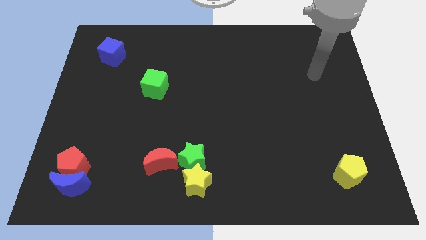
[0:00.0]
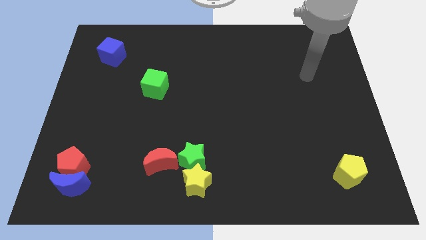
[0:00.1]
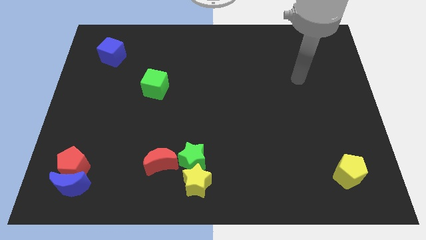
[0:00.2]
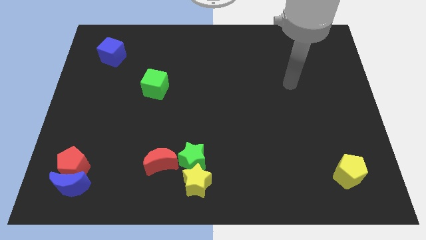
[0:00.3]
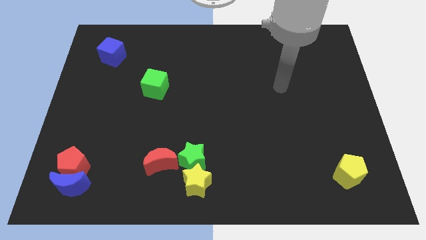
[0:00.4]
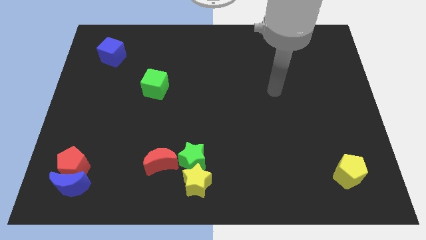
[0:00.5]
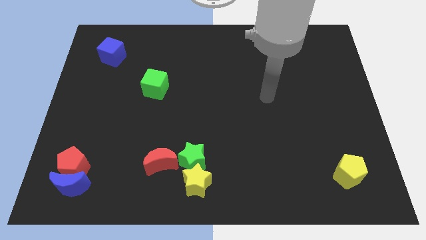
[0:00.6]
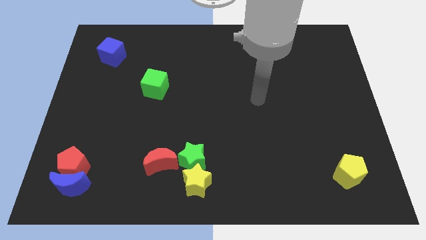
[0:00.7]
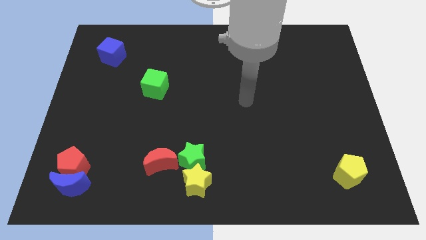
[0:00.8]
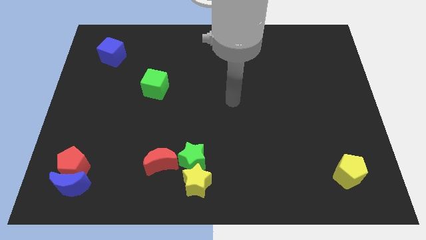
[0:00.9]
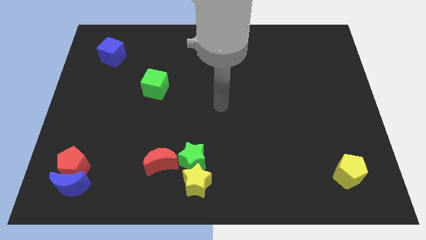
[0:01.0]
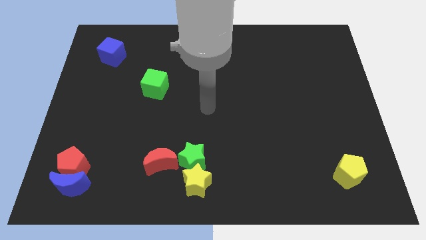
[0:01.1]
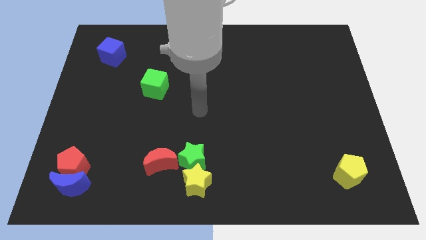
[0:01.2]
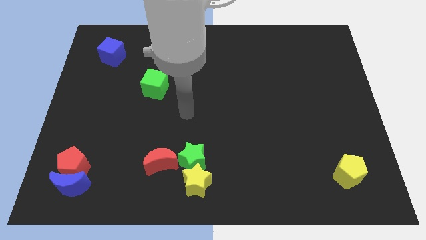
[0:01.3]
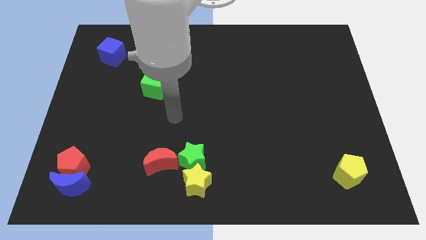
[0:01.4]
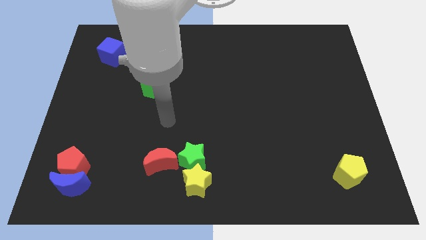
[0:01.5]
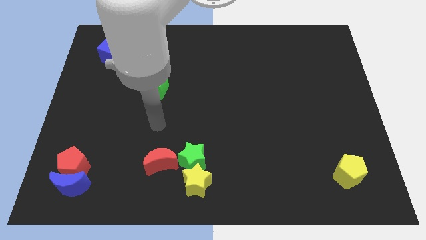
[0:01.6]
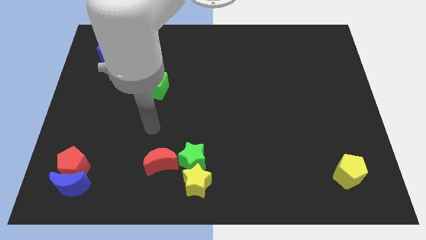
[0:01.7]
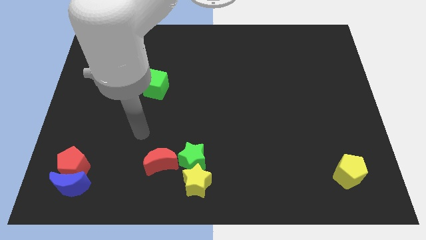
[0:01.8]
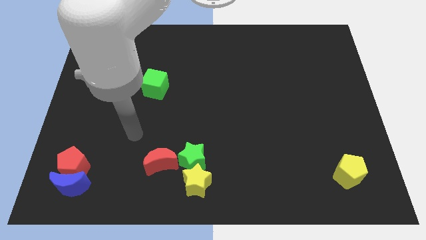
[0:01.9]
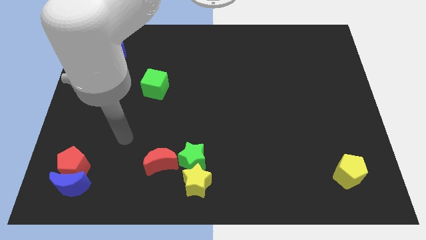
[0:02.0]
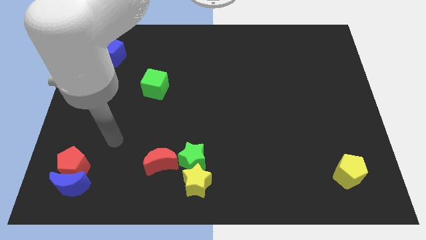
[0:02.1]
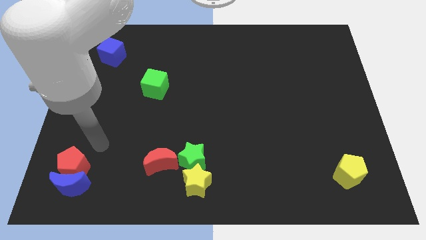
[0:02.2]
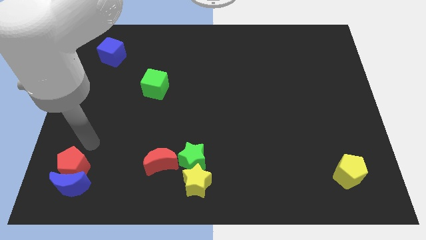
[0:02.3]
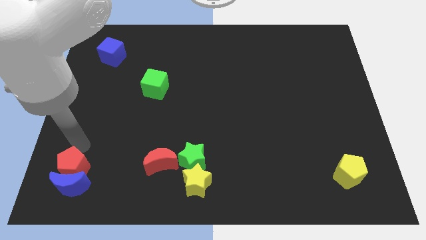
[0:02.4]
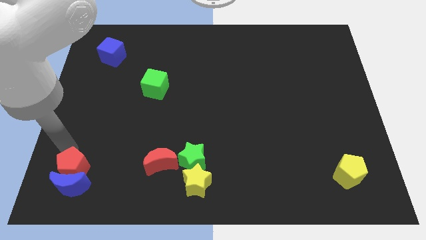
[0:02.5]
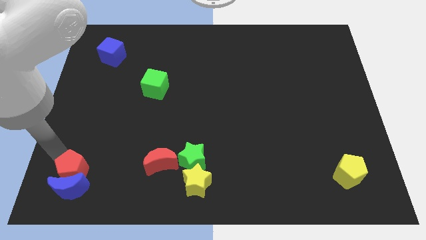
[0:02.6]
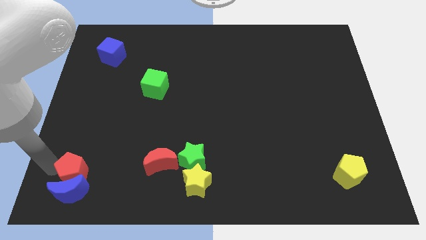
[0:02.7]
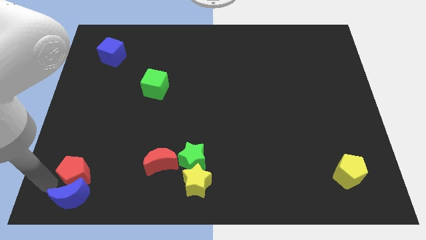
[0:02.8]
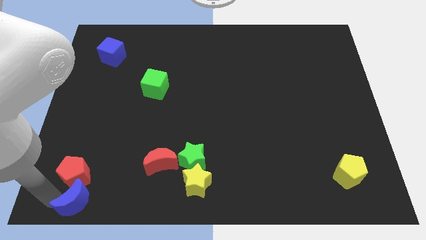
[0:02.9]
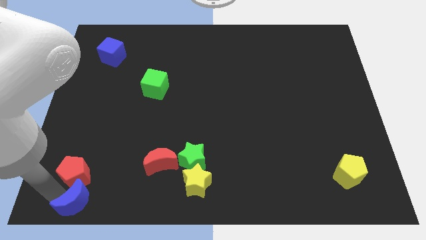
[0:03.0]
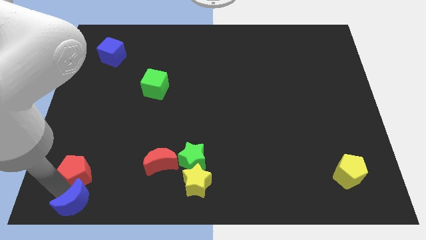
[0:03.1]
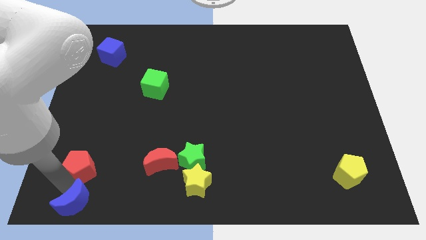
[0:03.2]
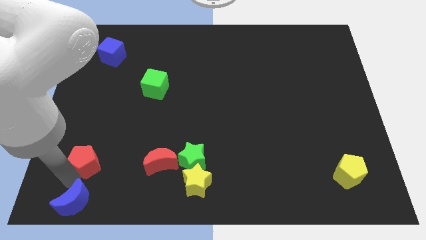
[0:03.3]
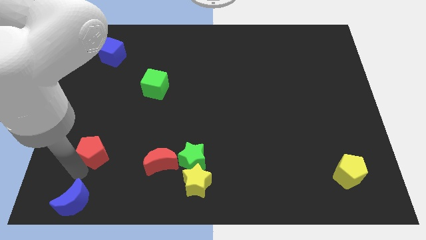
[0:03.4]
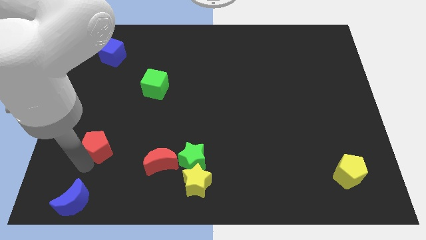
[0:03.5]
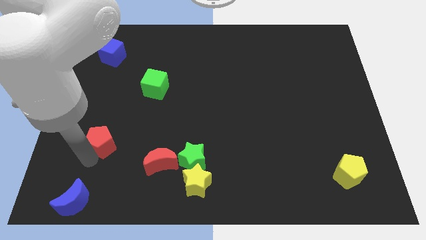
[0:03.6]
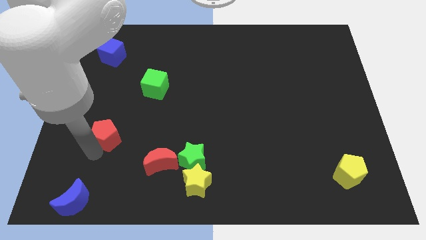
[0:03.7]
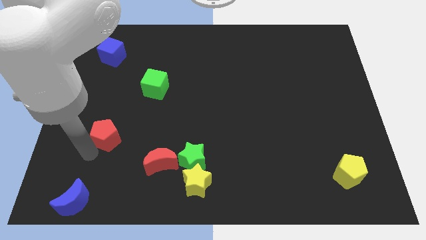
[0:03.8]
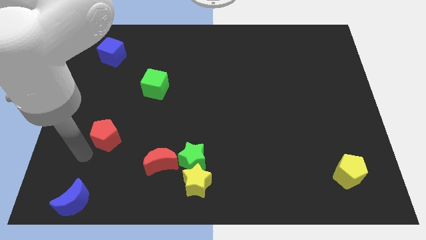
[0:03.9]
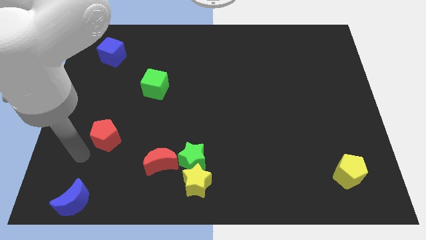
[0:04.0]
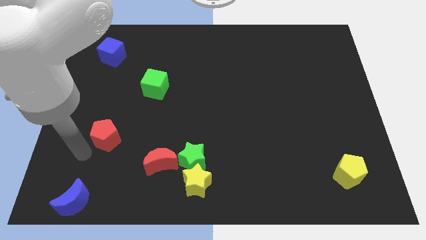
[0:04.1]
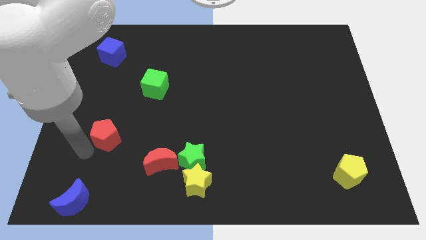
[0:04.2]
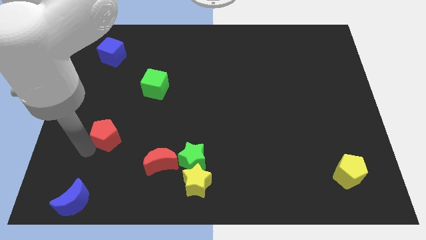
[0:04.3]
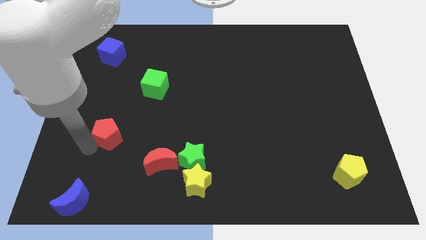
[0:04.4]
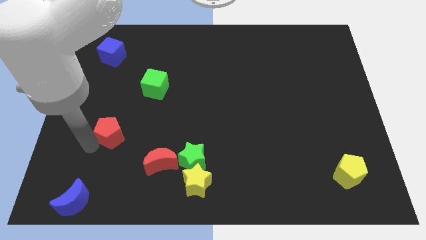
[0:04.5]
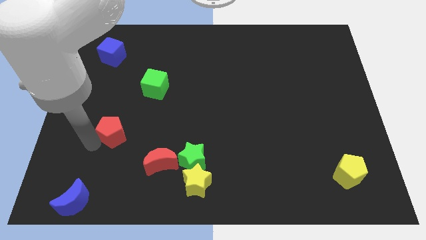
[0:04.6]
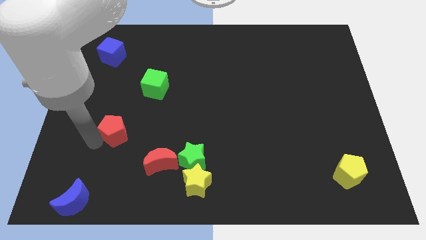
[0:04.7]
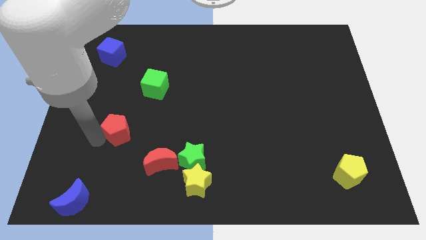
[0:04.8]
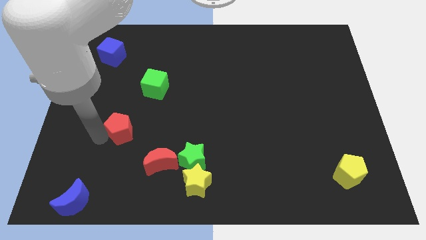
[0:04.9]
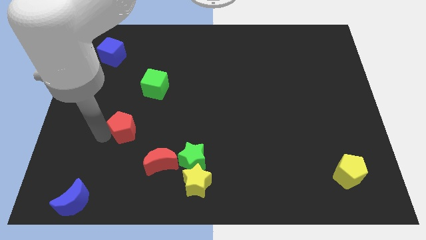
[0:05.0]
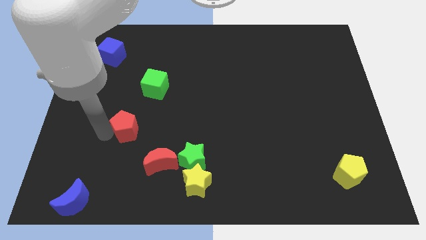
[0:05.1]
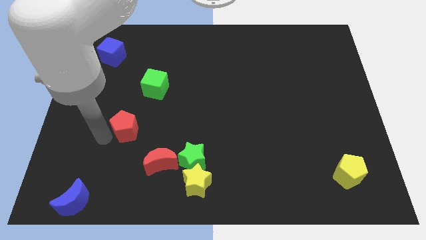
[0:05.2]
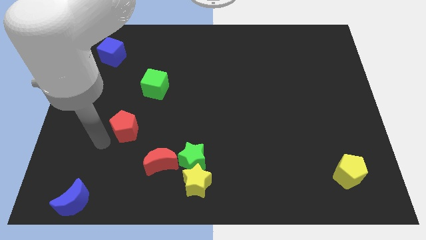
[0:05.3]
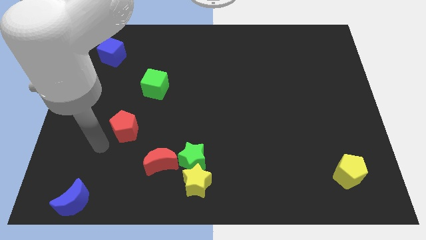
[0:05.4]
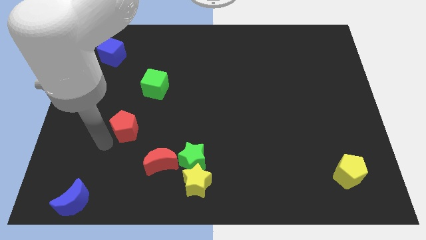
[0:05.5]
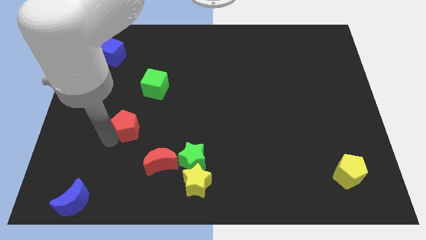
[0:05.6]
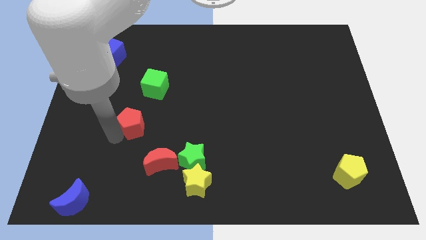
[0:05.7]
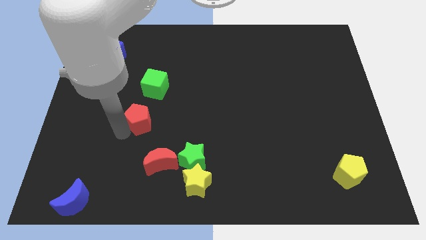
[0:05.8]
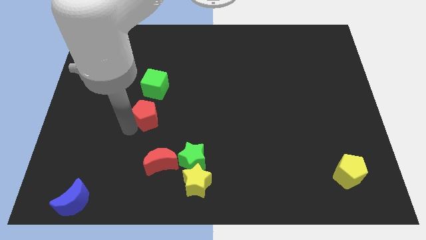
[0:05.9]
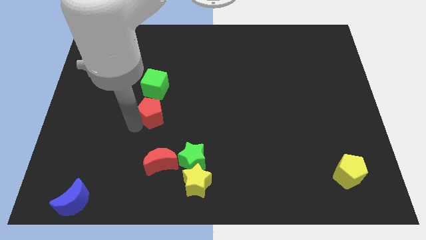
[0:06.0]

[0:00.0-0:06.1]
slide the red pentagon diagonally upwards and right

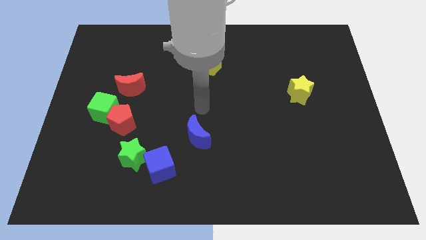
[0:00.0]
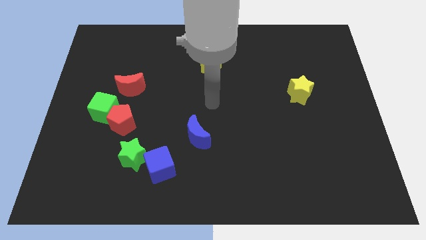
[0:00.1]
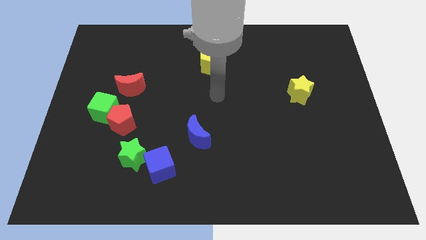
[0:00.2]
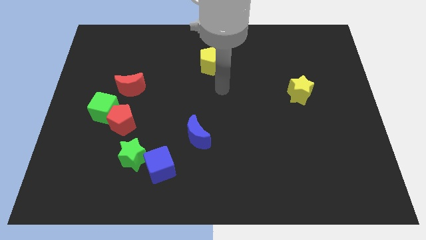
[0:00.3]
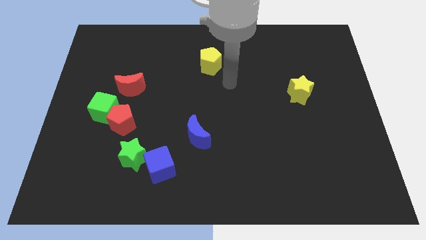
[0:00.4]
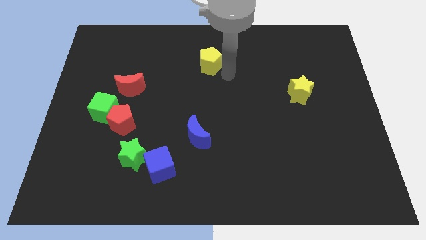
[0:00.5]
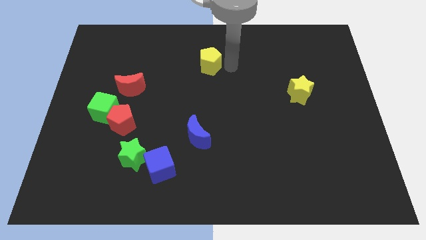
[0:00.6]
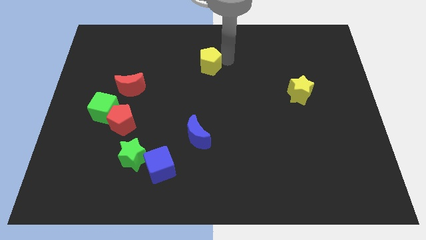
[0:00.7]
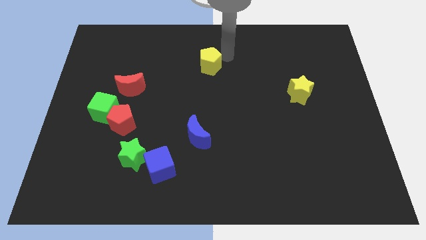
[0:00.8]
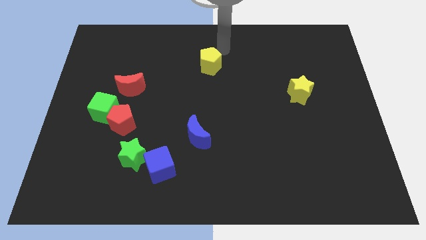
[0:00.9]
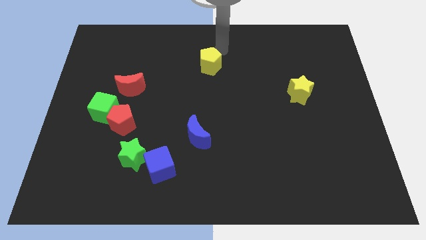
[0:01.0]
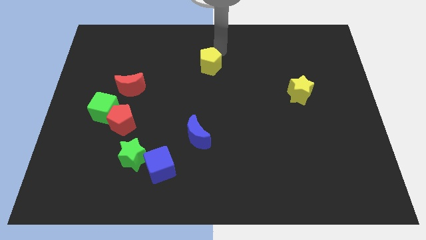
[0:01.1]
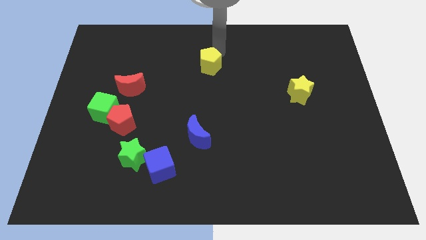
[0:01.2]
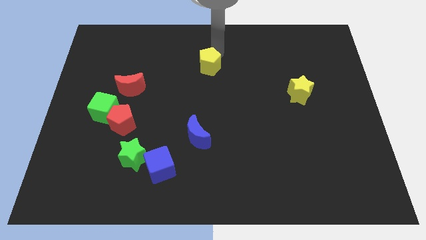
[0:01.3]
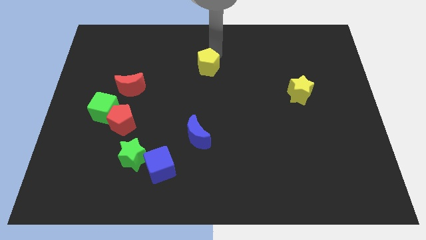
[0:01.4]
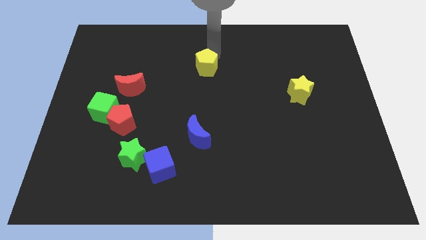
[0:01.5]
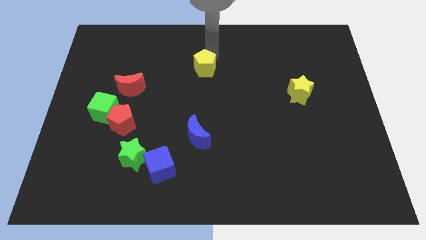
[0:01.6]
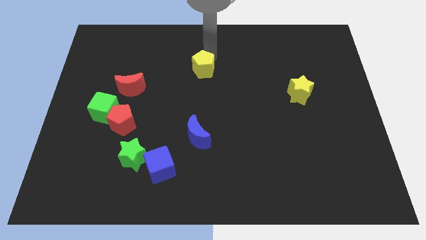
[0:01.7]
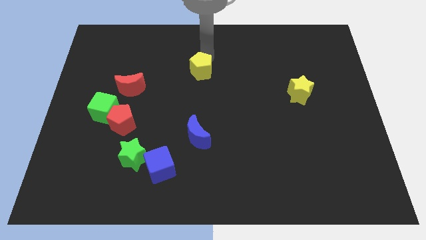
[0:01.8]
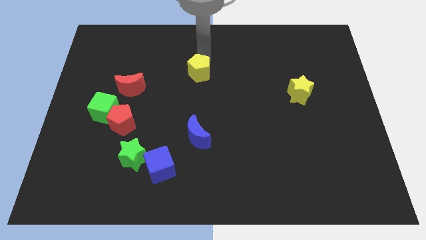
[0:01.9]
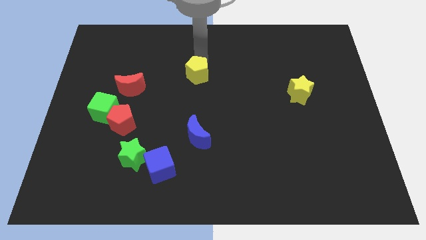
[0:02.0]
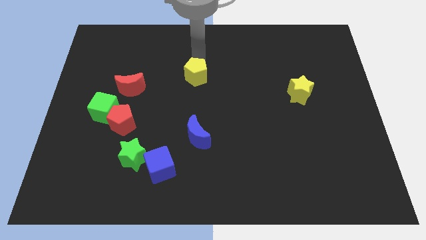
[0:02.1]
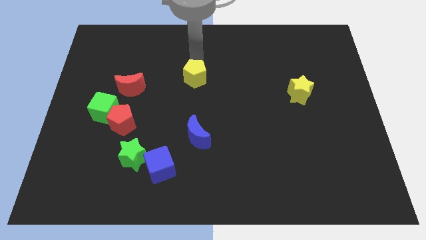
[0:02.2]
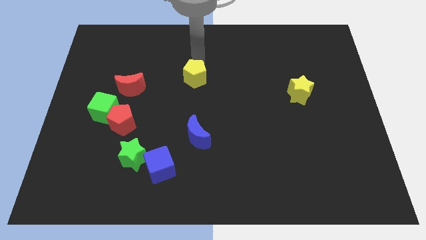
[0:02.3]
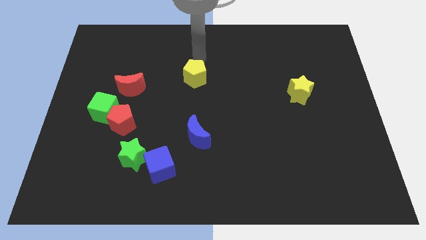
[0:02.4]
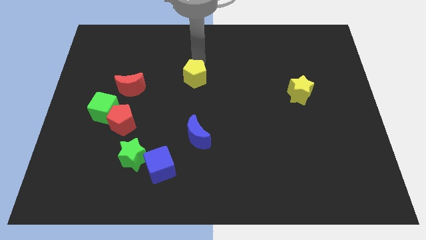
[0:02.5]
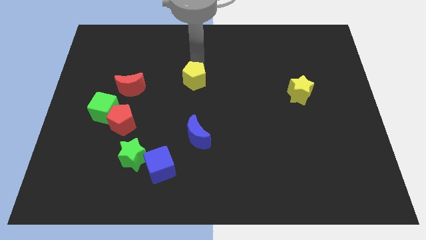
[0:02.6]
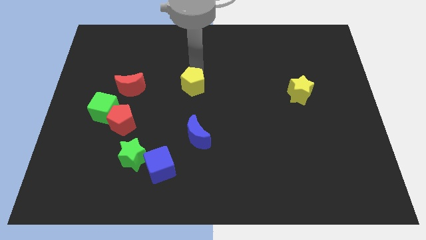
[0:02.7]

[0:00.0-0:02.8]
move the yellow pentagon slightly downwards and then to the left
